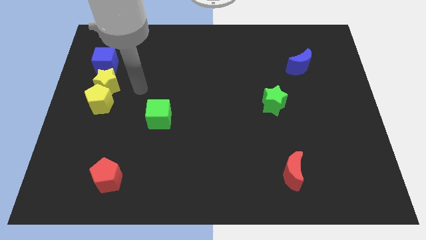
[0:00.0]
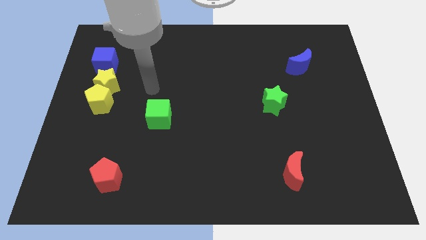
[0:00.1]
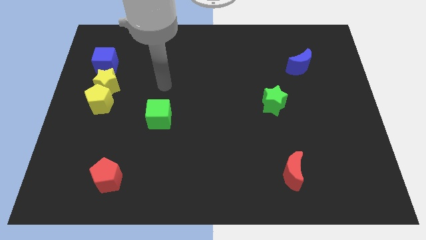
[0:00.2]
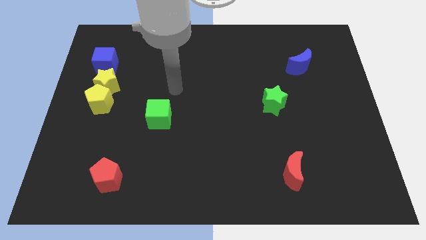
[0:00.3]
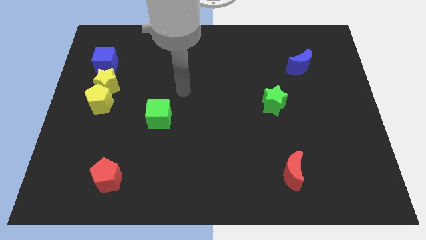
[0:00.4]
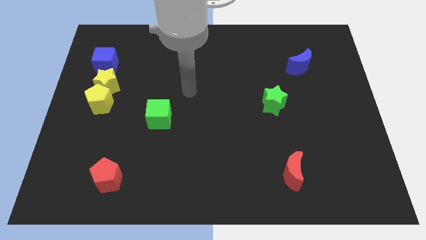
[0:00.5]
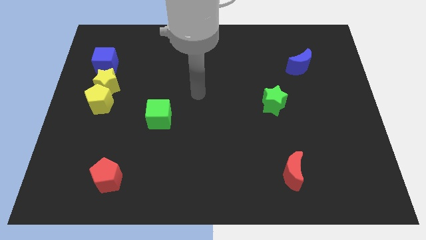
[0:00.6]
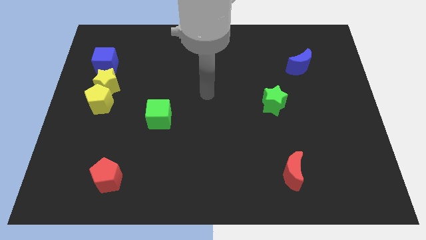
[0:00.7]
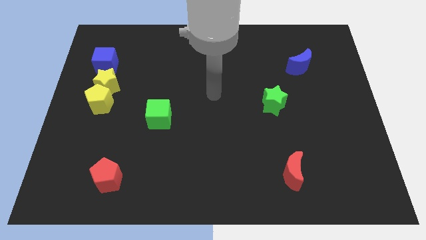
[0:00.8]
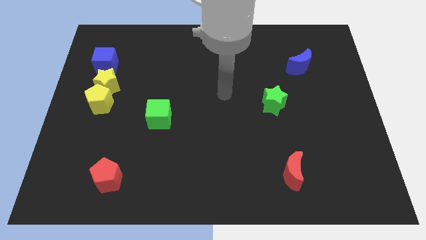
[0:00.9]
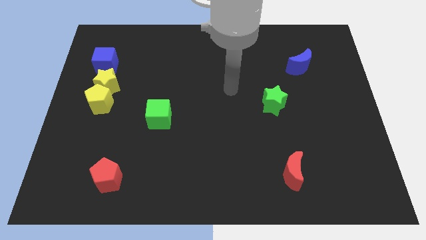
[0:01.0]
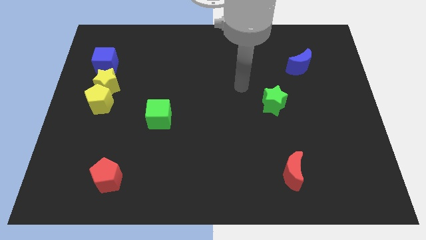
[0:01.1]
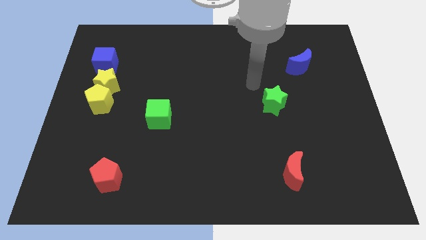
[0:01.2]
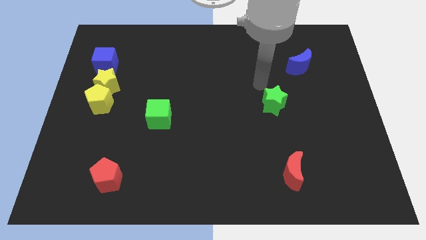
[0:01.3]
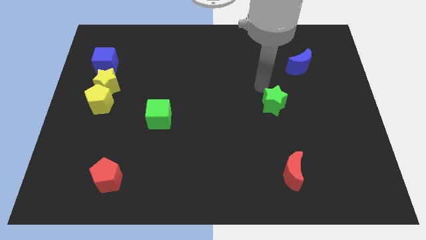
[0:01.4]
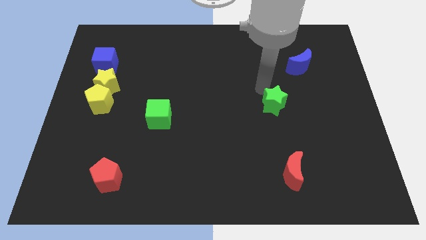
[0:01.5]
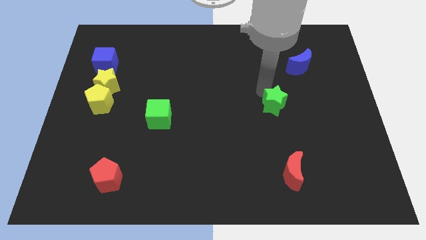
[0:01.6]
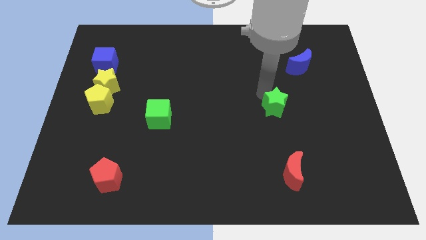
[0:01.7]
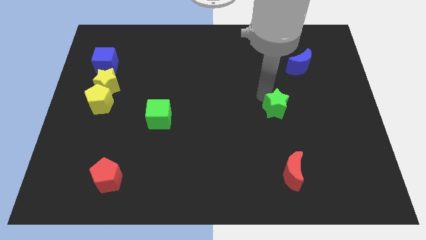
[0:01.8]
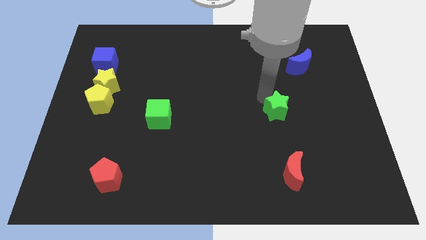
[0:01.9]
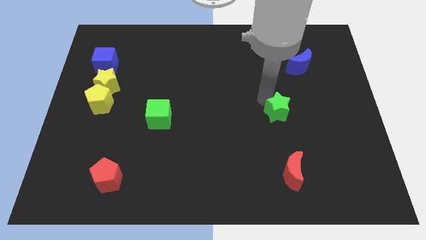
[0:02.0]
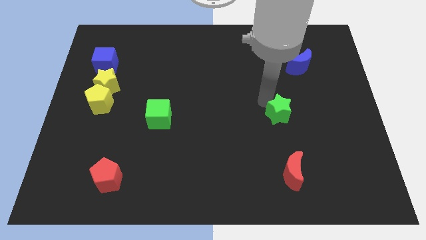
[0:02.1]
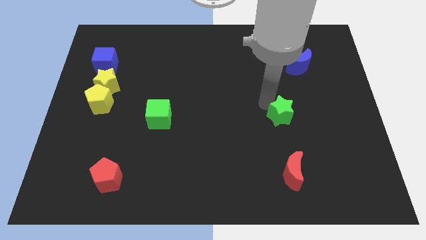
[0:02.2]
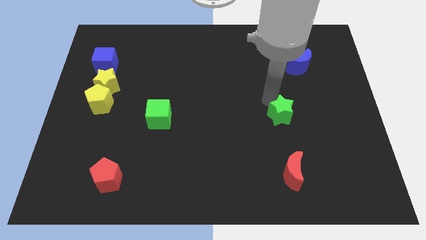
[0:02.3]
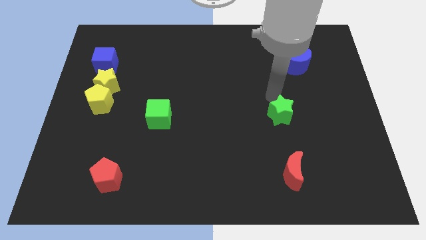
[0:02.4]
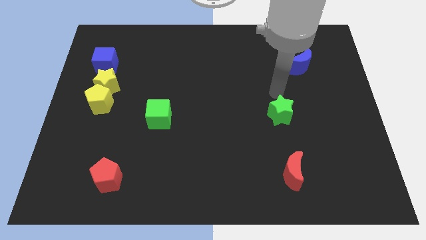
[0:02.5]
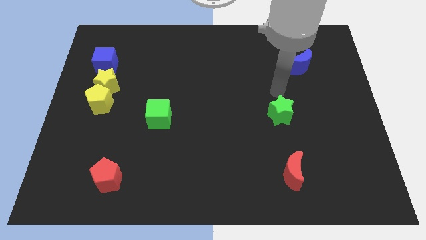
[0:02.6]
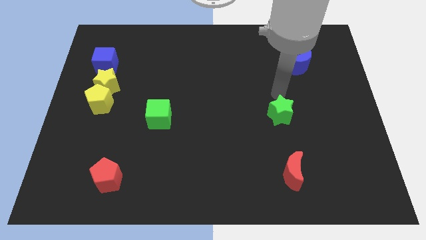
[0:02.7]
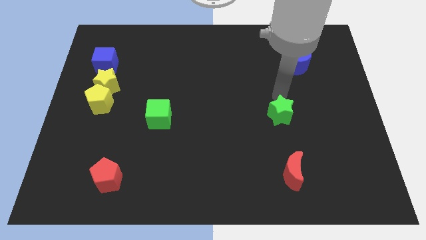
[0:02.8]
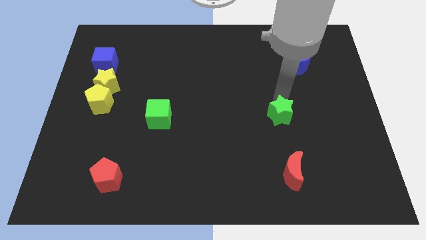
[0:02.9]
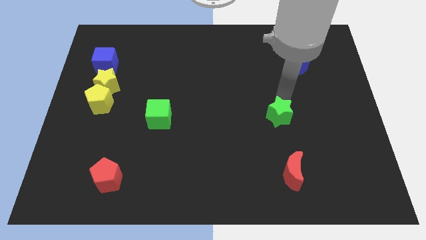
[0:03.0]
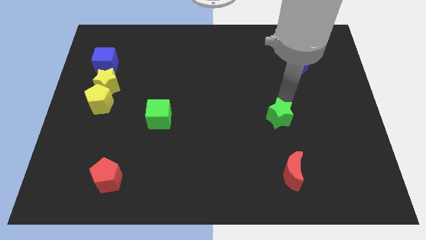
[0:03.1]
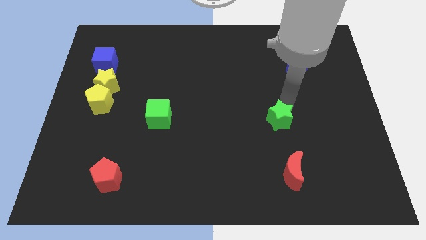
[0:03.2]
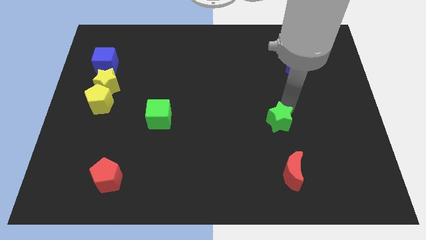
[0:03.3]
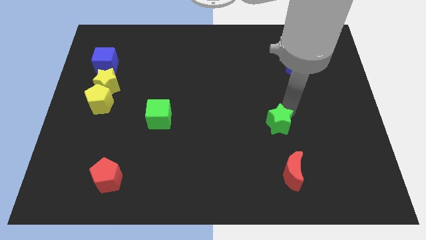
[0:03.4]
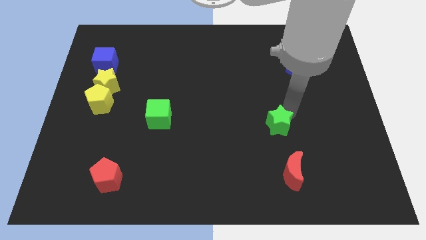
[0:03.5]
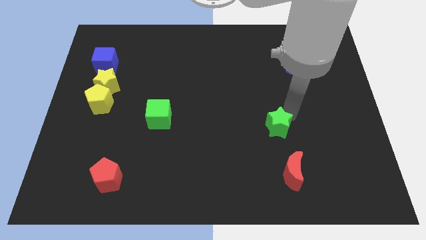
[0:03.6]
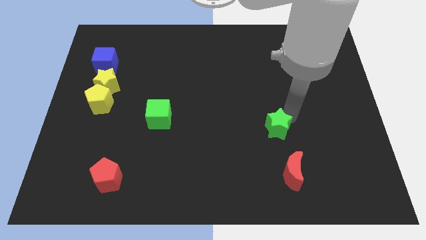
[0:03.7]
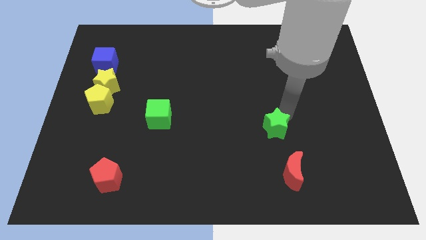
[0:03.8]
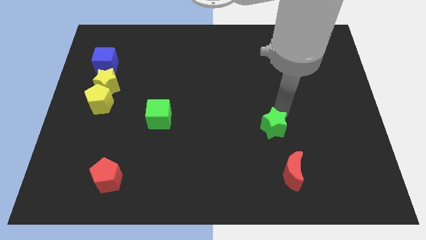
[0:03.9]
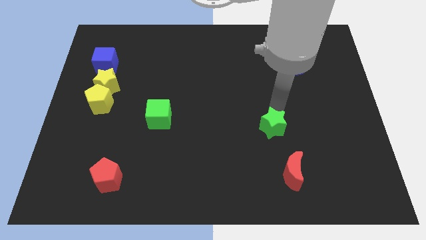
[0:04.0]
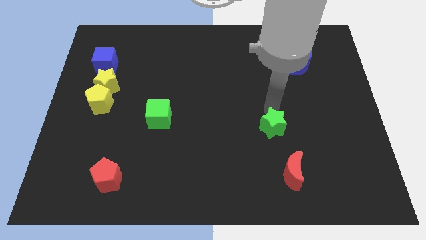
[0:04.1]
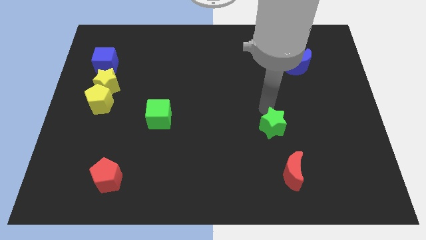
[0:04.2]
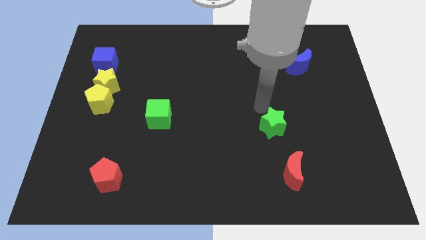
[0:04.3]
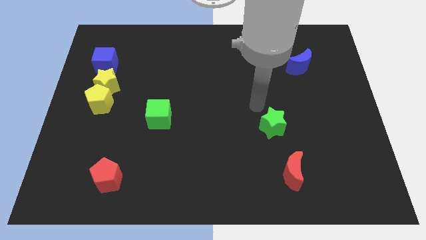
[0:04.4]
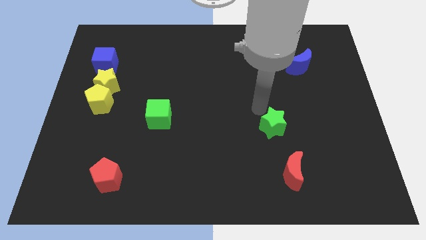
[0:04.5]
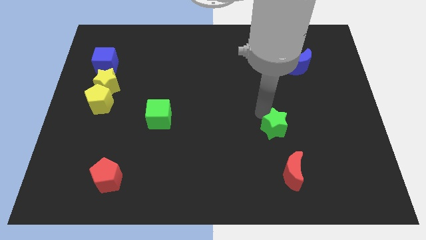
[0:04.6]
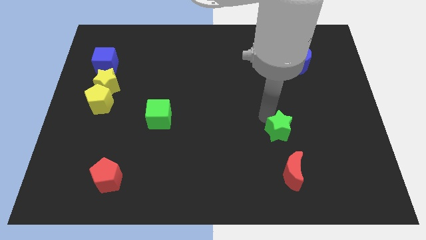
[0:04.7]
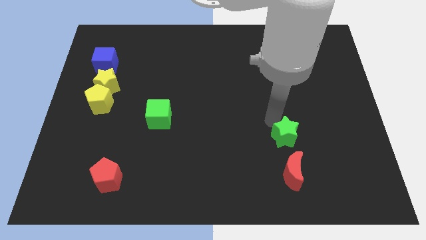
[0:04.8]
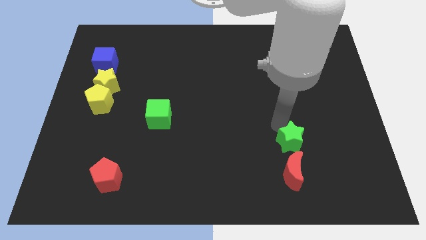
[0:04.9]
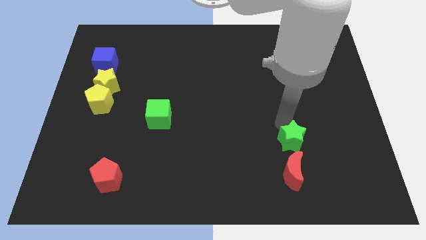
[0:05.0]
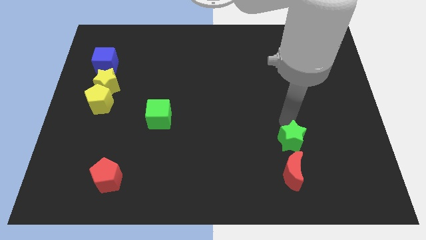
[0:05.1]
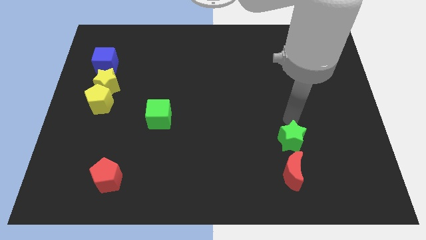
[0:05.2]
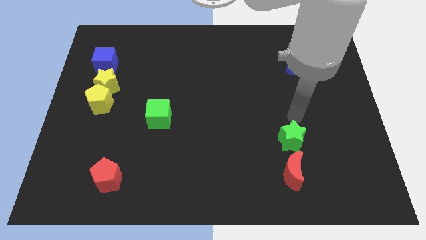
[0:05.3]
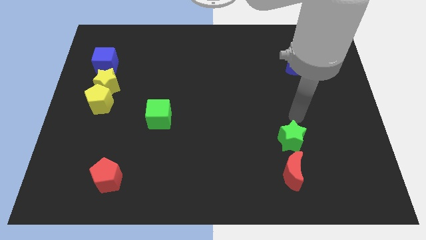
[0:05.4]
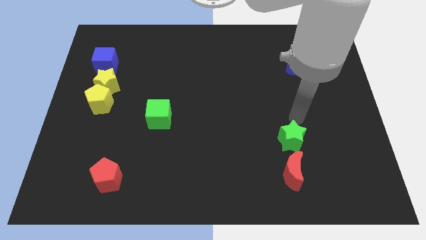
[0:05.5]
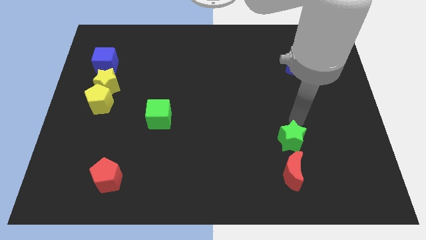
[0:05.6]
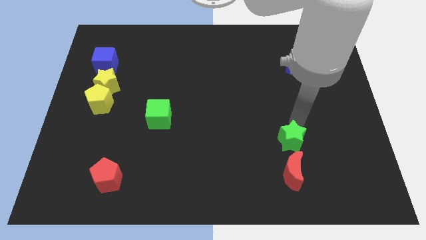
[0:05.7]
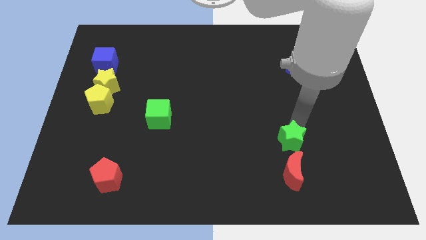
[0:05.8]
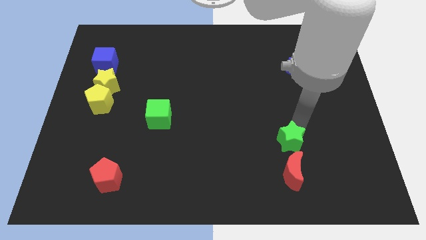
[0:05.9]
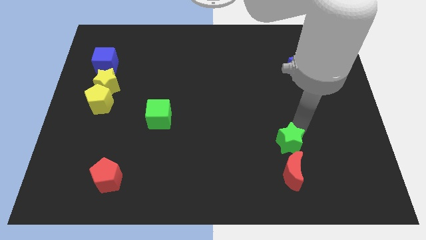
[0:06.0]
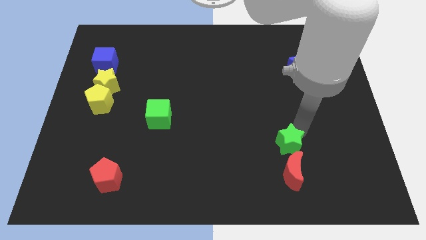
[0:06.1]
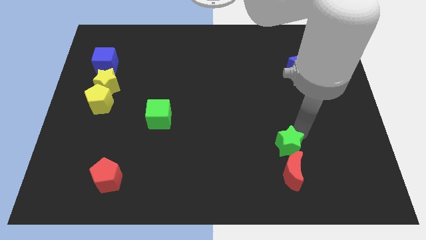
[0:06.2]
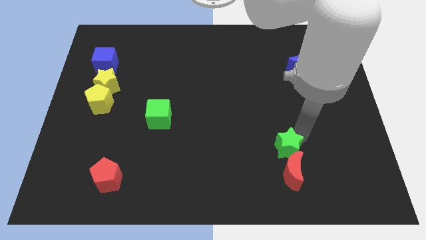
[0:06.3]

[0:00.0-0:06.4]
push the green star towards the red moon
